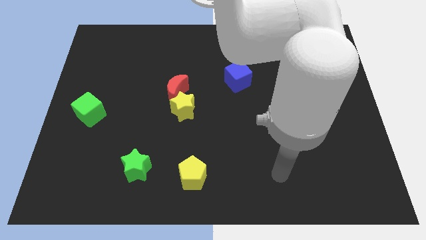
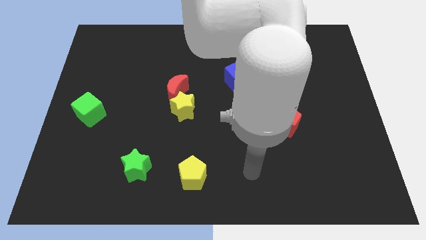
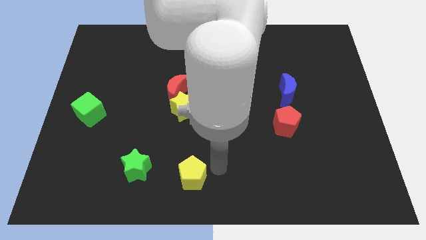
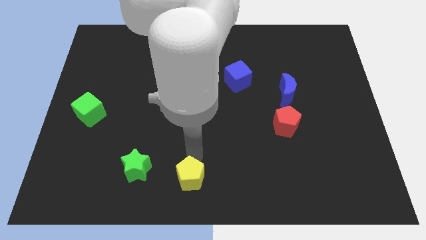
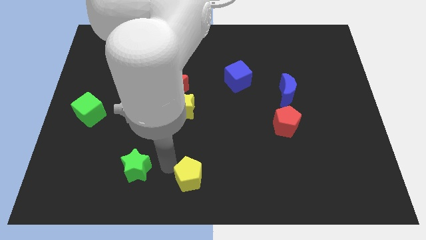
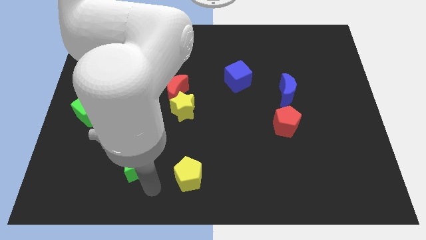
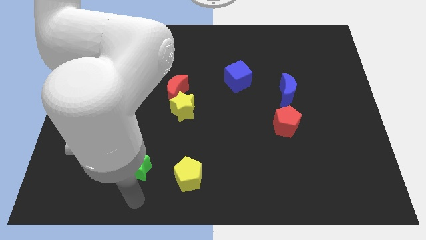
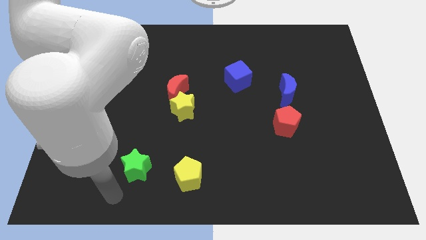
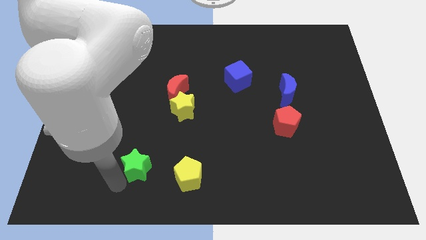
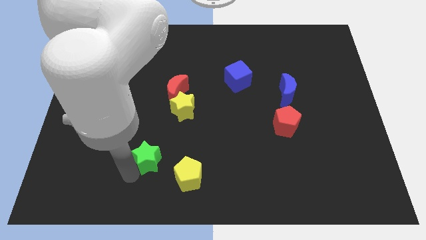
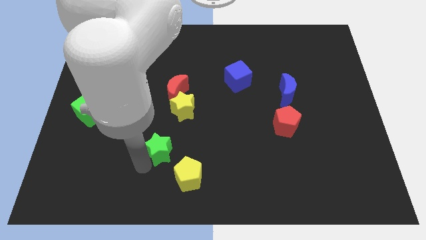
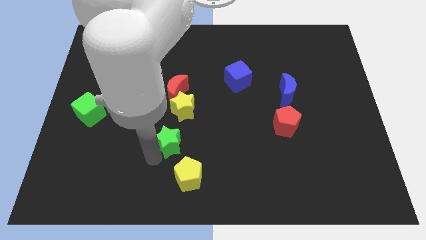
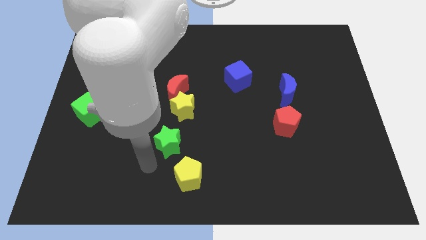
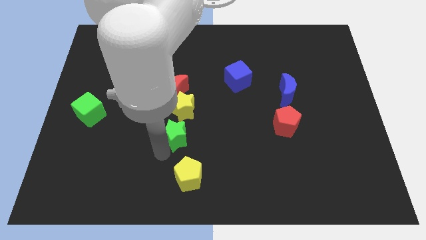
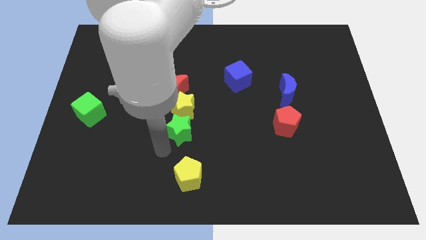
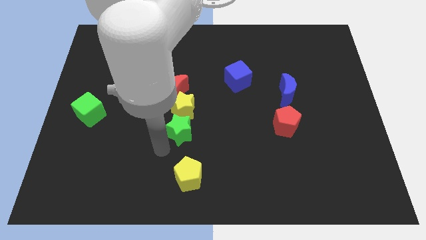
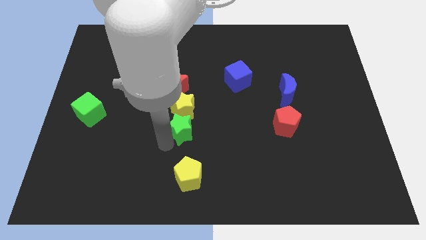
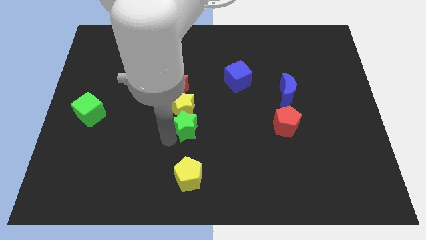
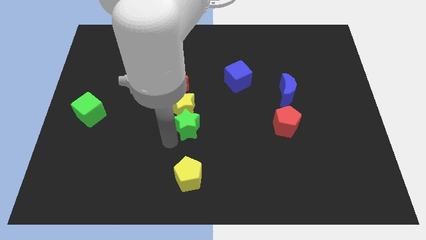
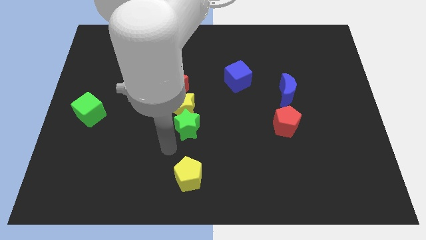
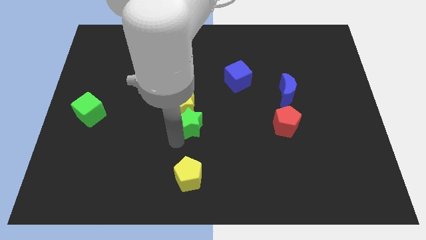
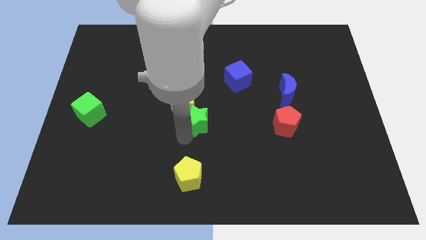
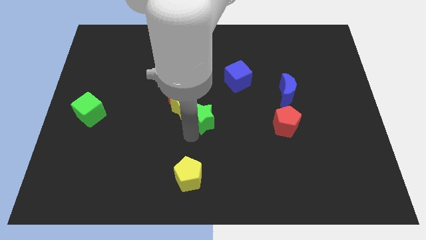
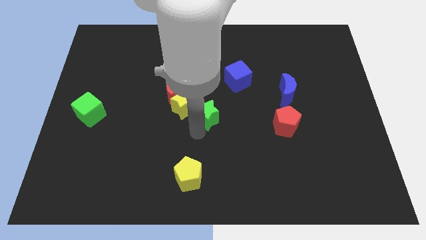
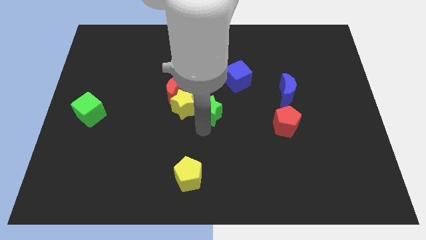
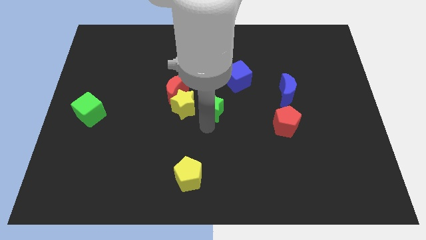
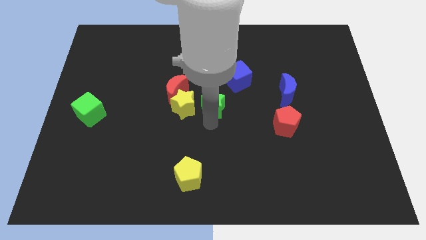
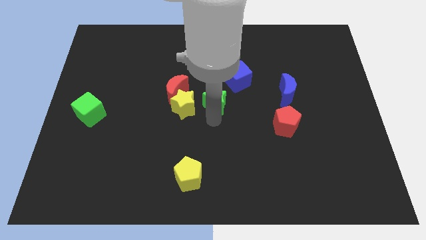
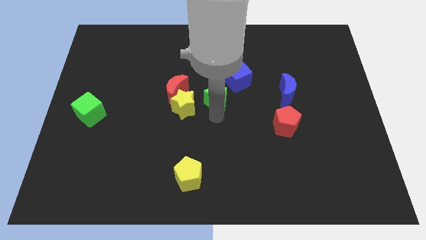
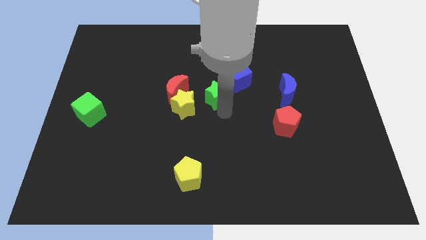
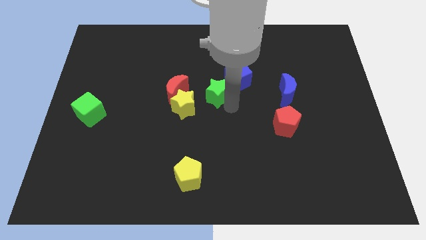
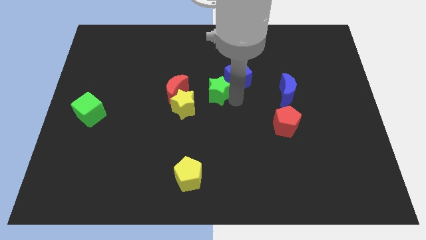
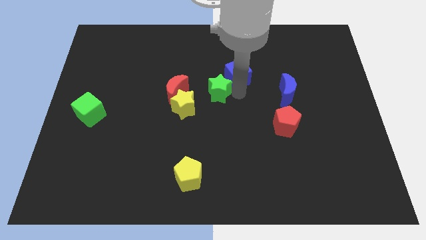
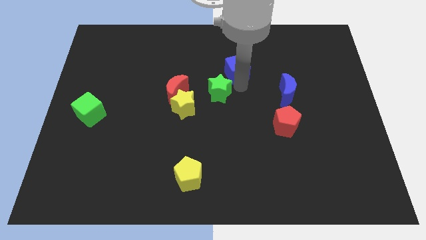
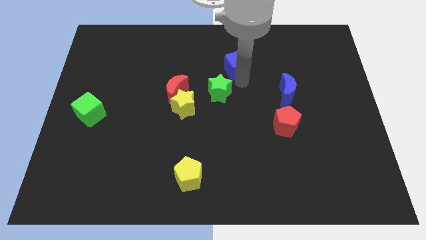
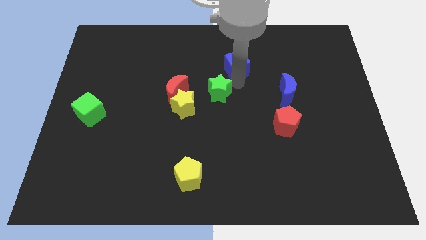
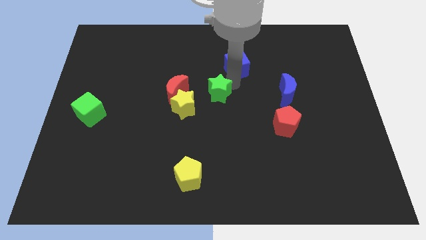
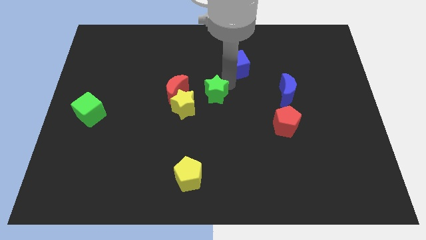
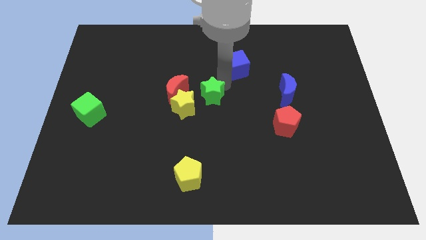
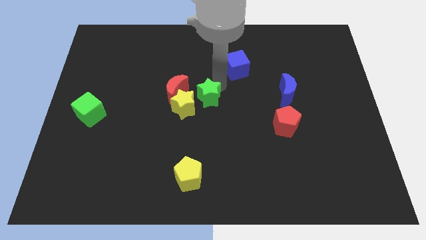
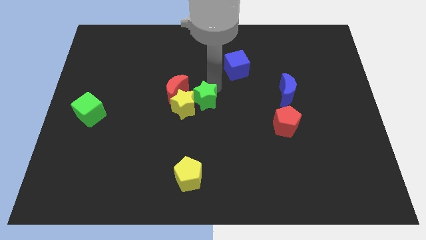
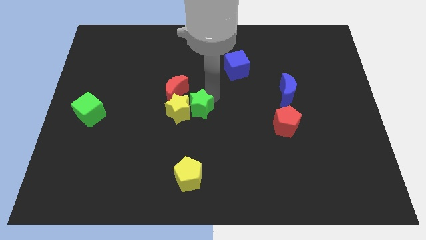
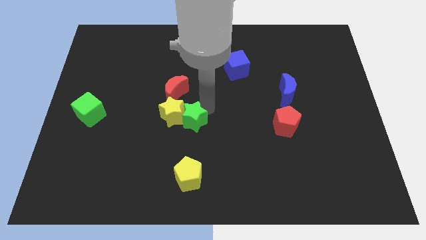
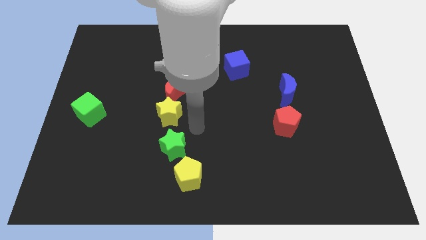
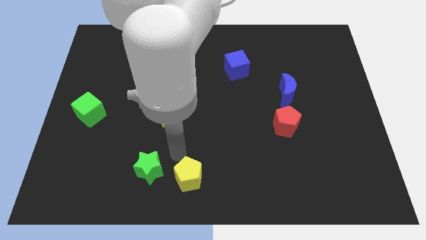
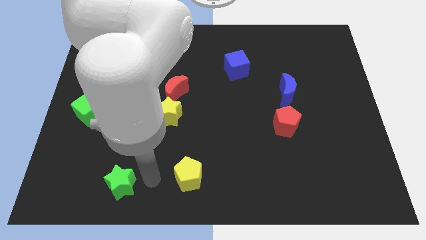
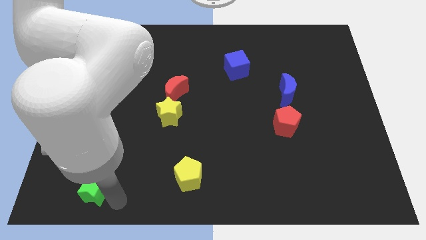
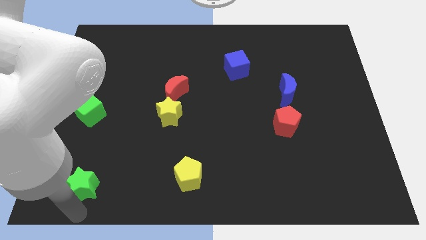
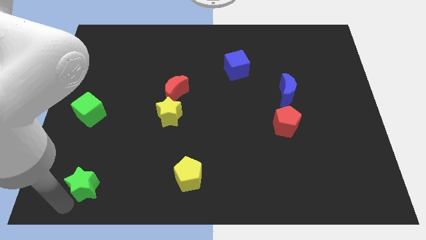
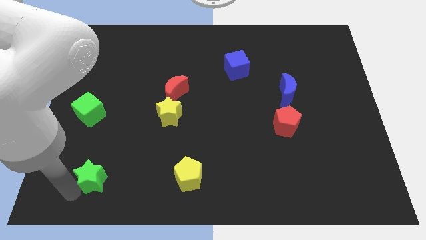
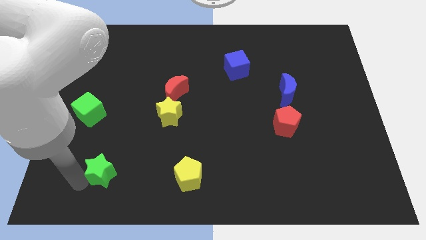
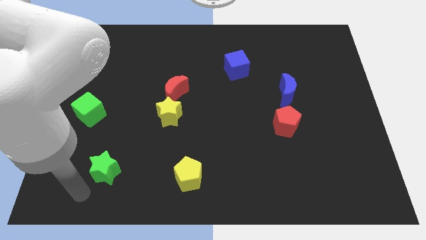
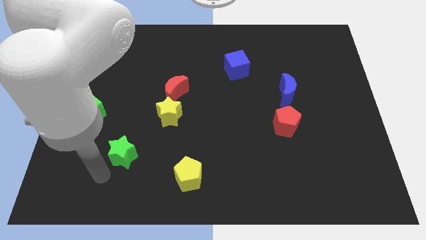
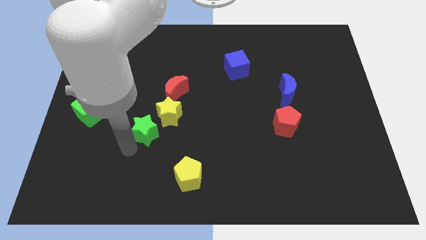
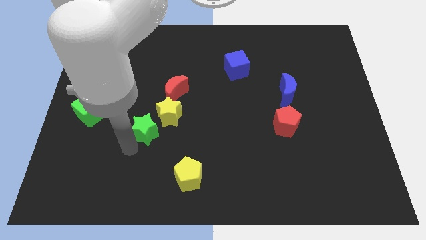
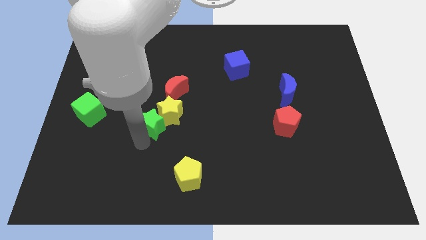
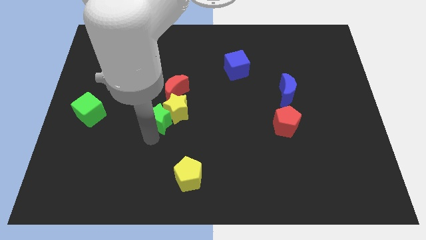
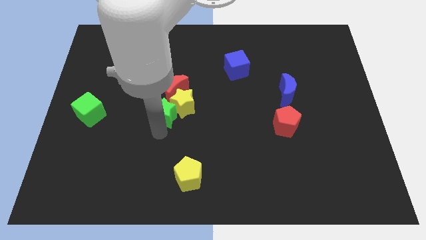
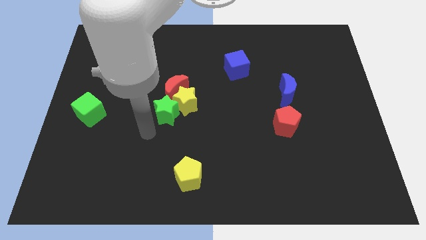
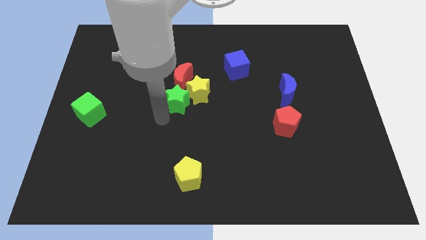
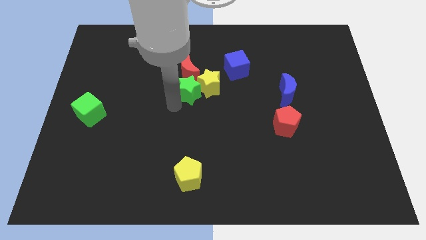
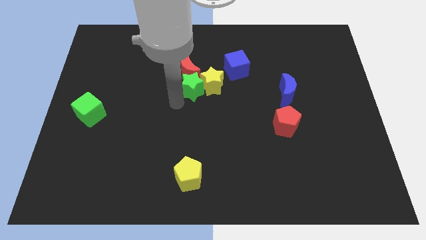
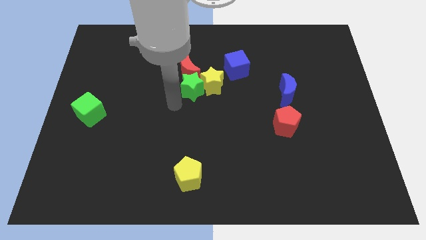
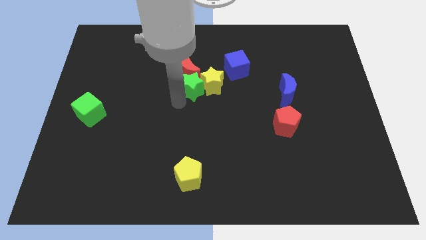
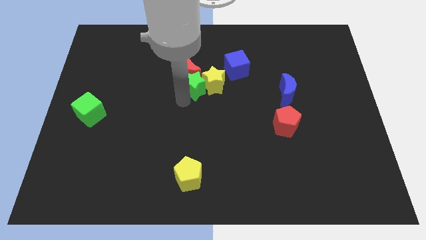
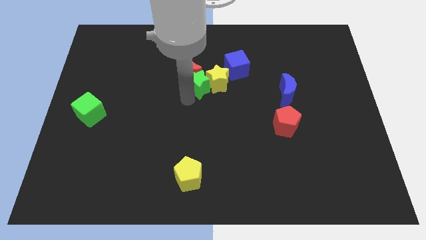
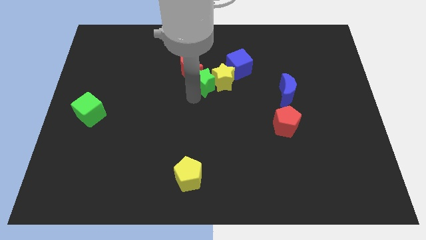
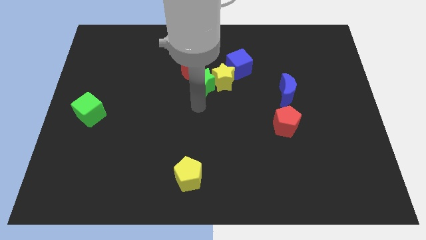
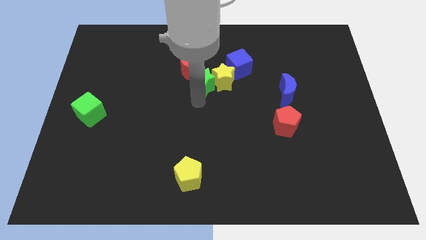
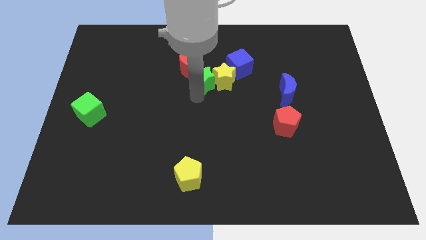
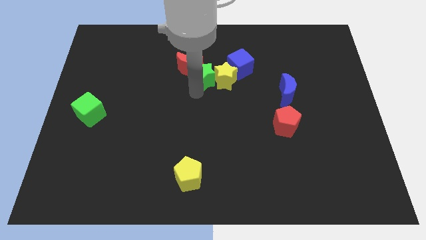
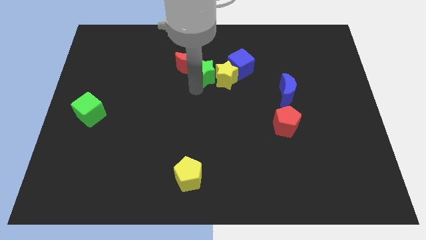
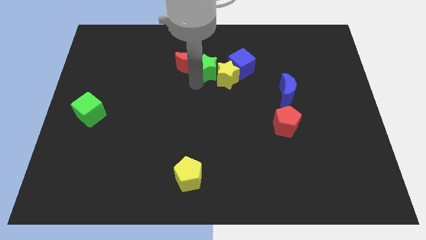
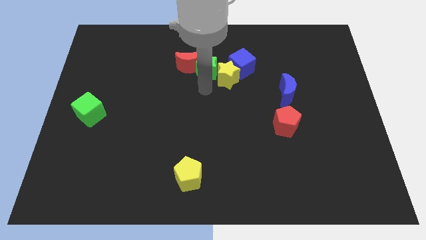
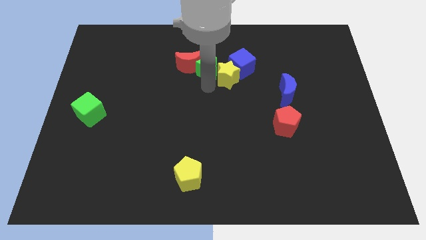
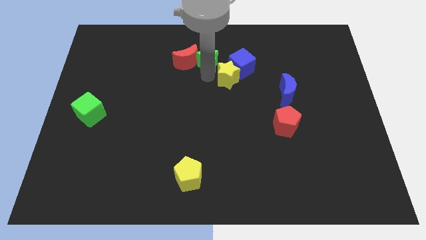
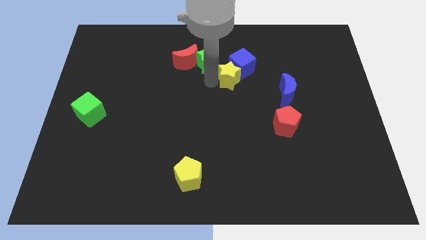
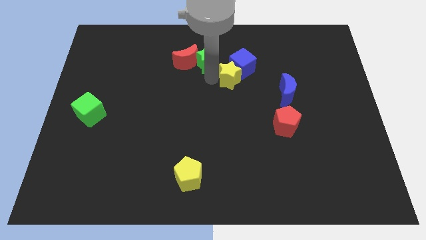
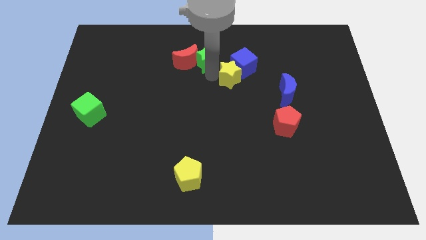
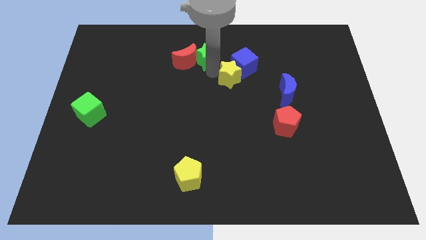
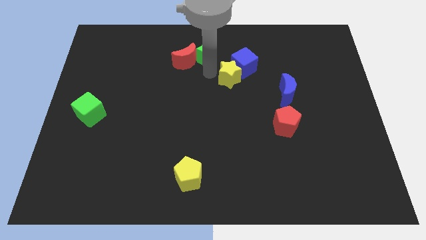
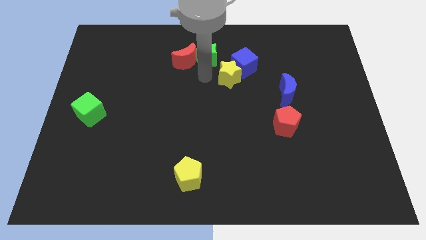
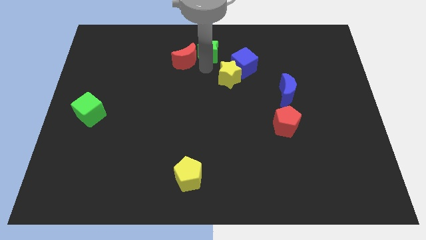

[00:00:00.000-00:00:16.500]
put the green star to the top
